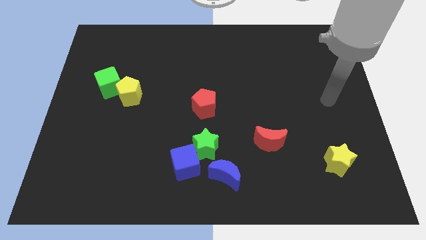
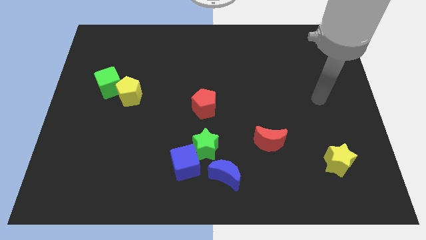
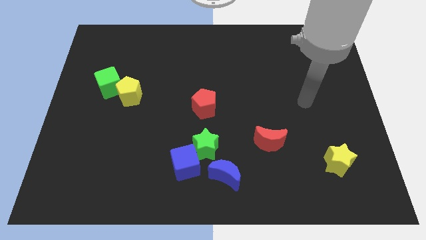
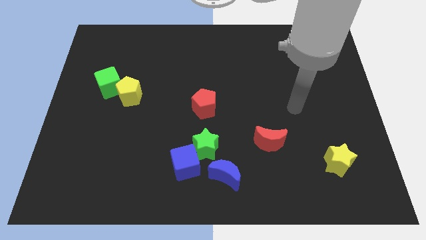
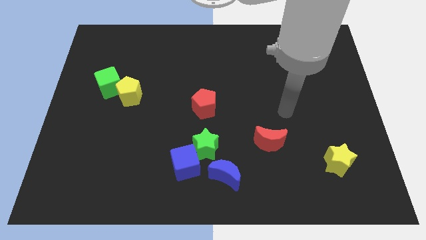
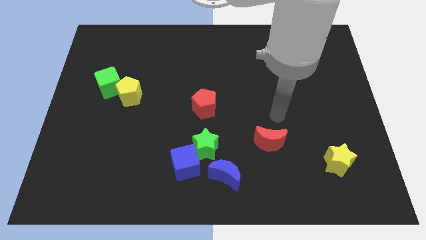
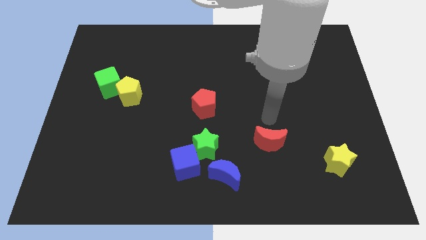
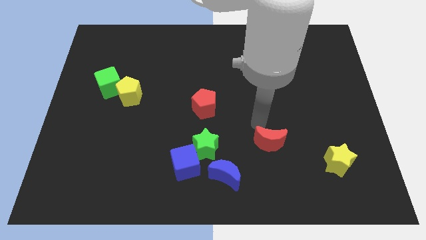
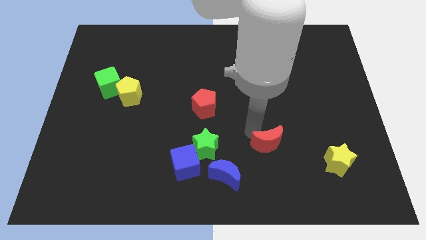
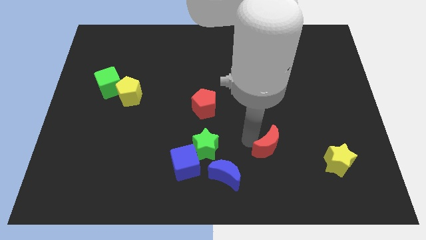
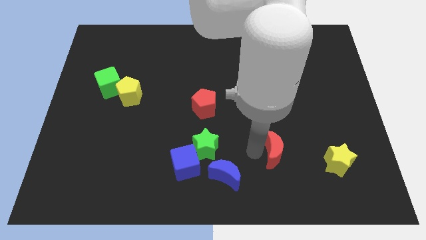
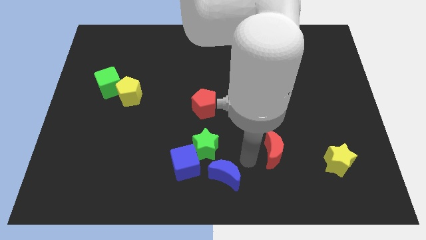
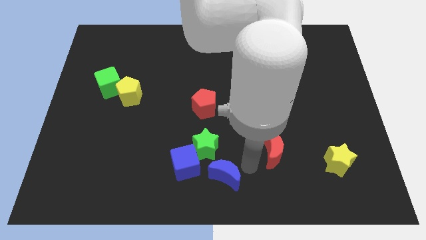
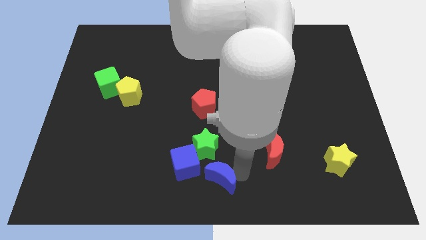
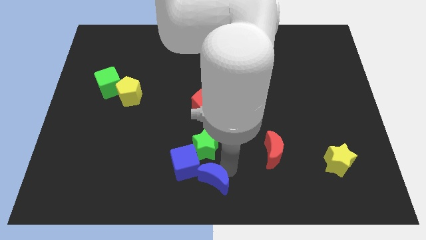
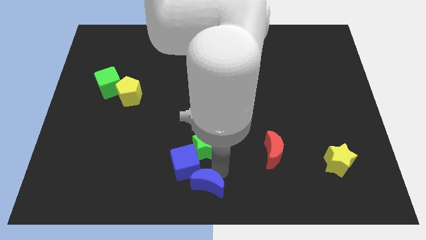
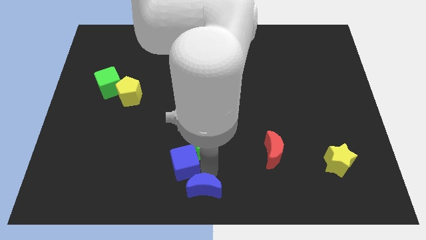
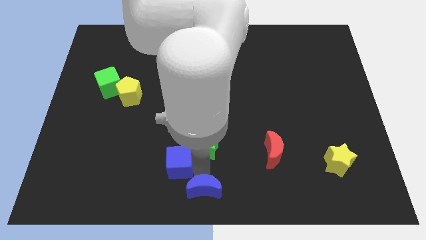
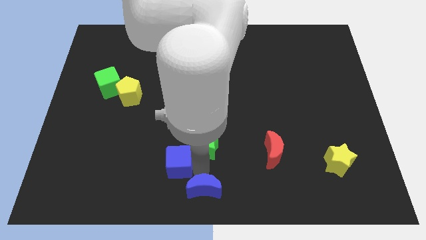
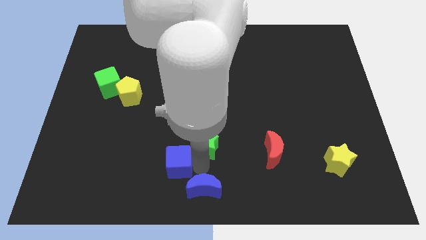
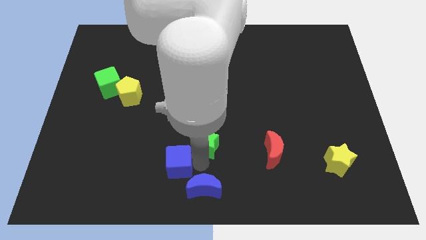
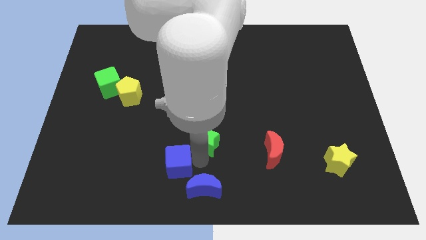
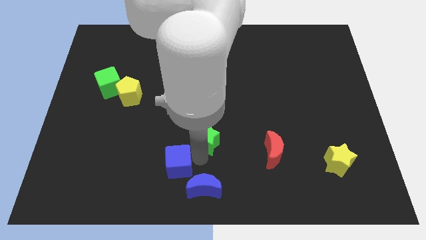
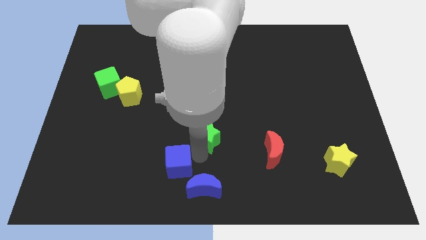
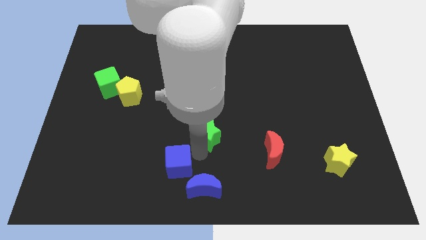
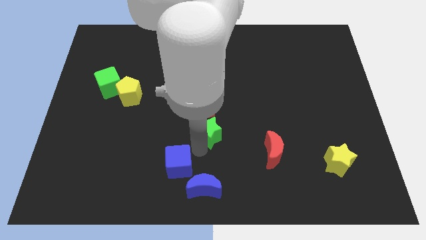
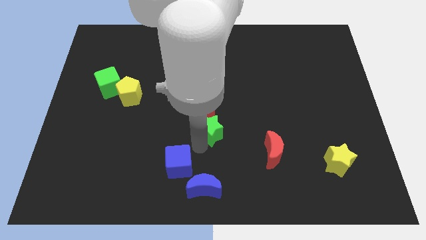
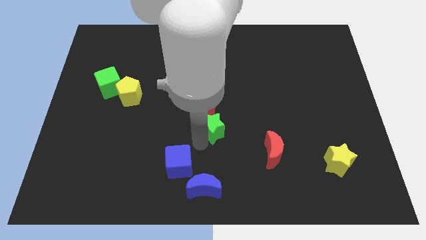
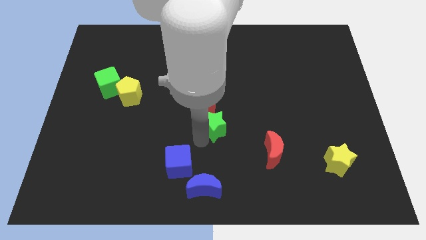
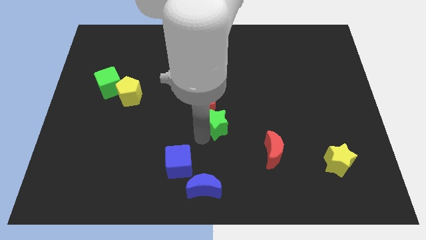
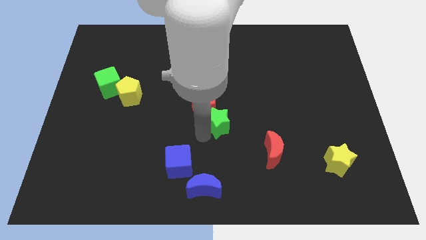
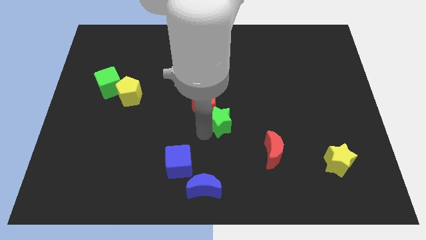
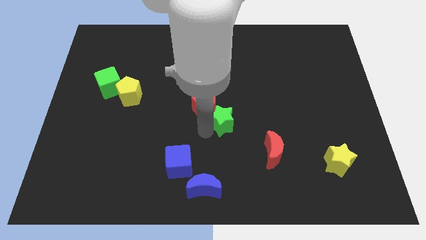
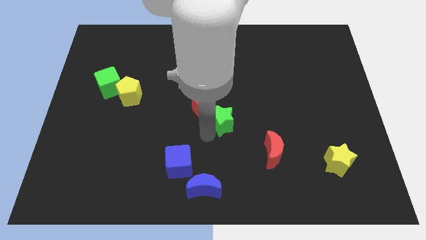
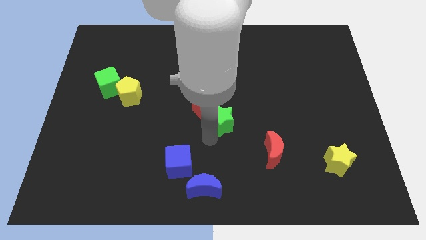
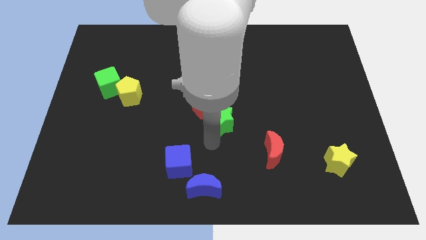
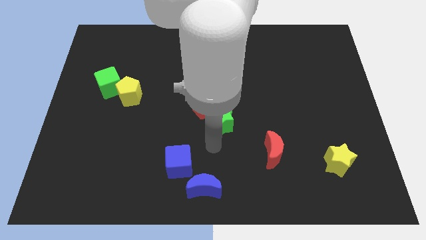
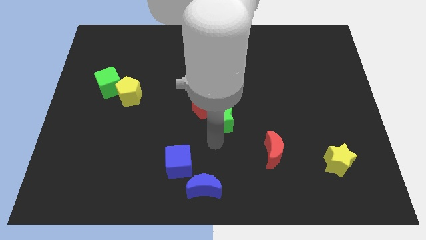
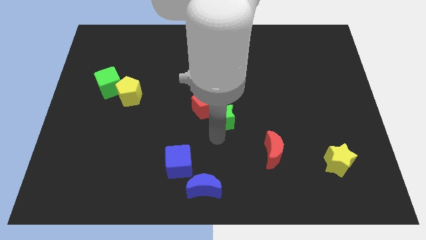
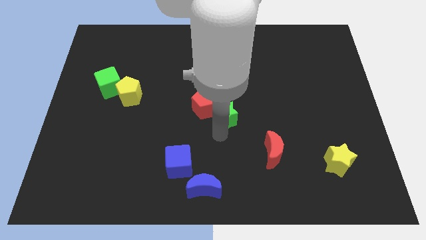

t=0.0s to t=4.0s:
slightly move the green star up

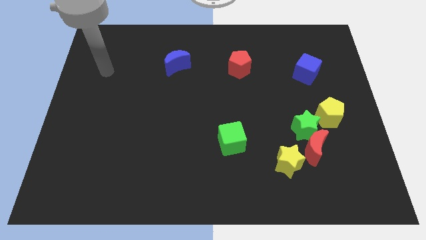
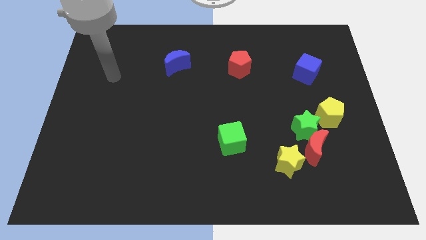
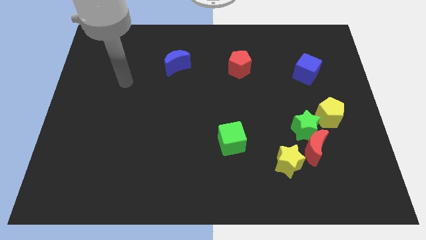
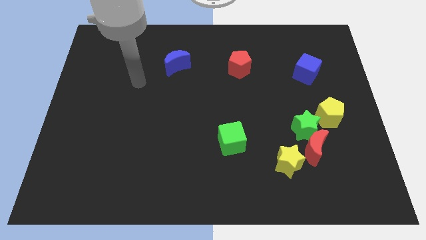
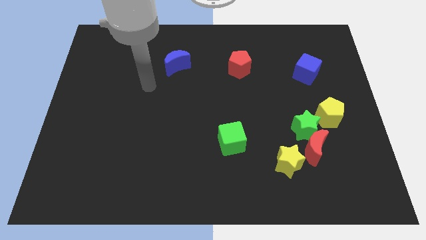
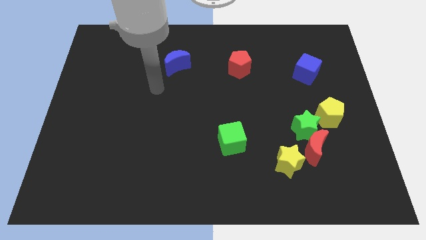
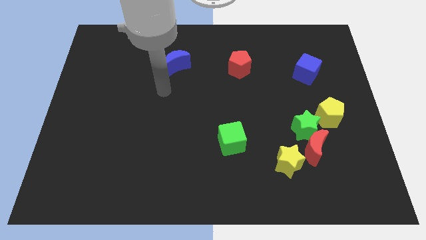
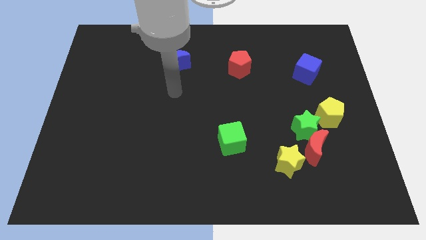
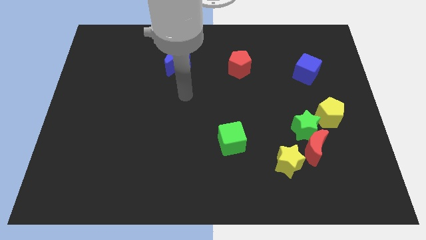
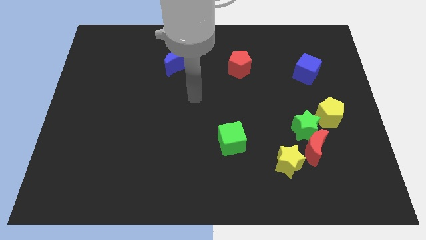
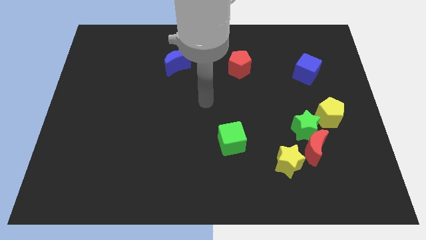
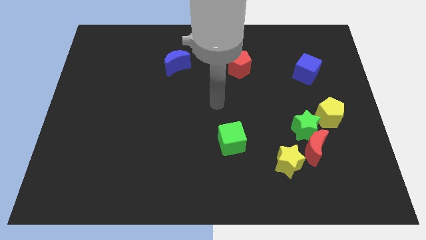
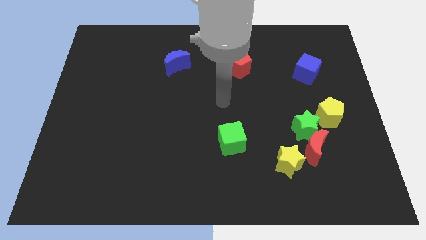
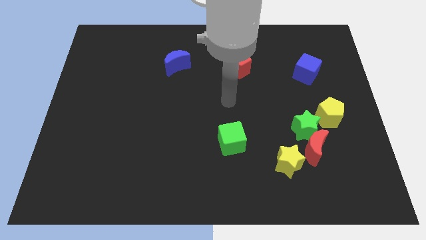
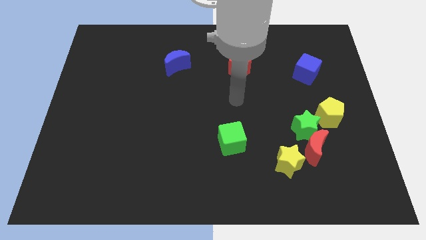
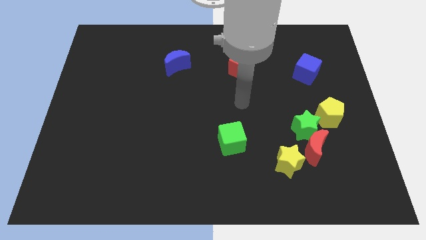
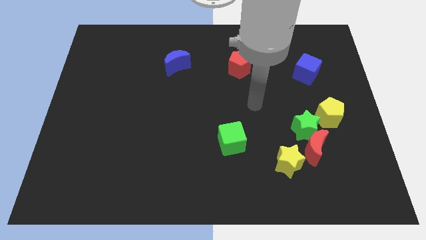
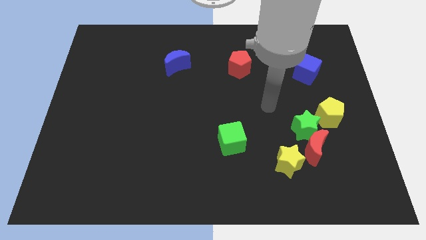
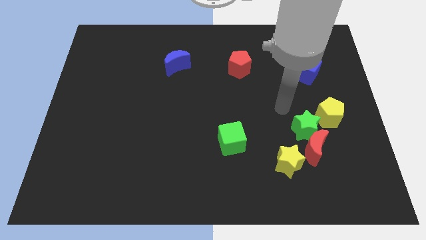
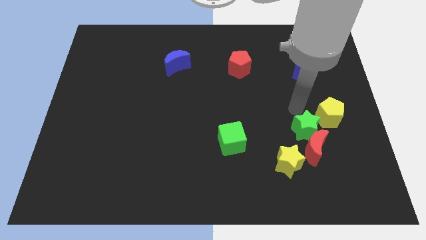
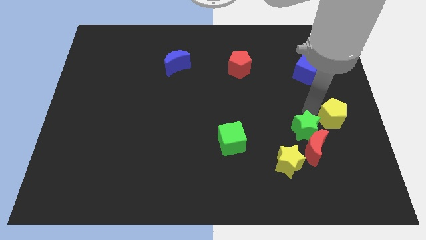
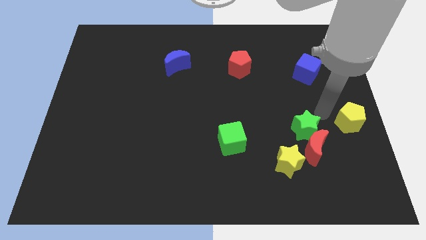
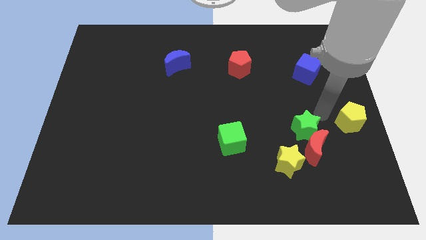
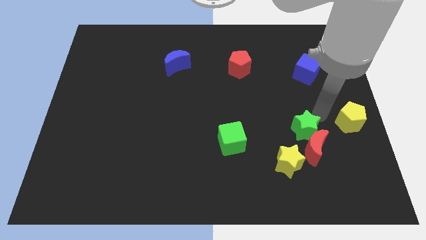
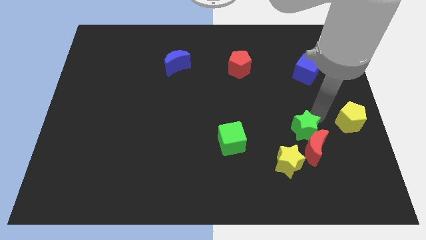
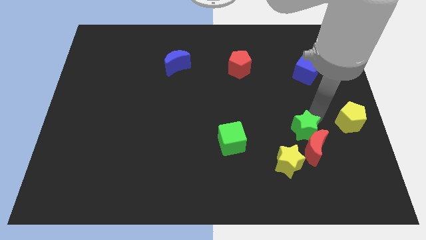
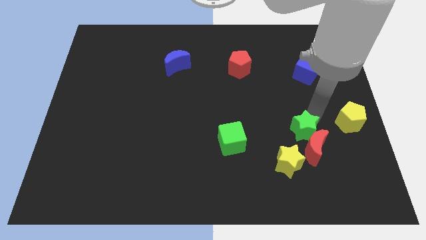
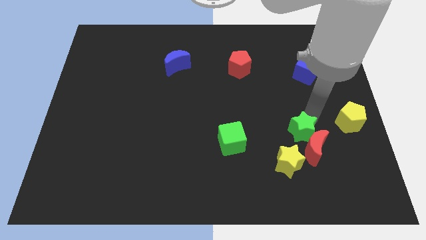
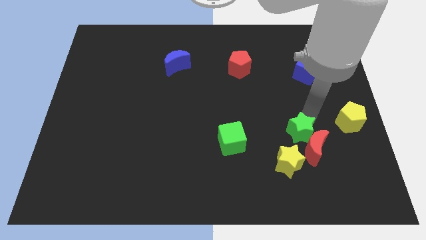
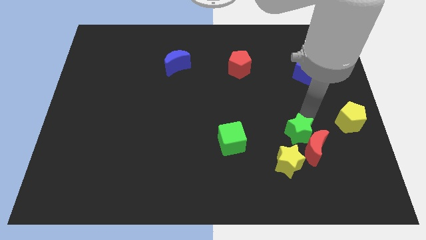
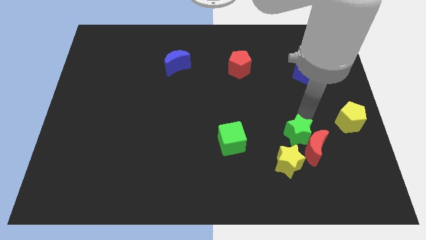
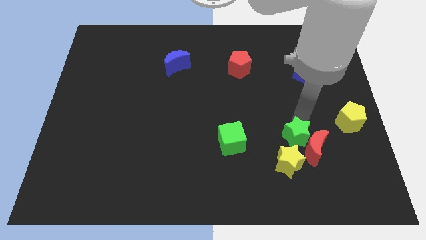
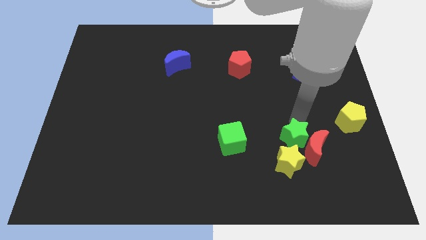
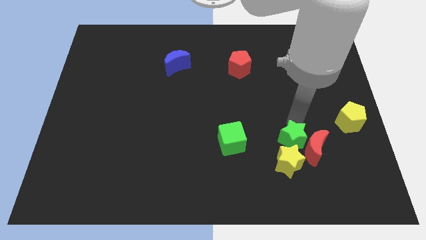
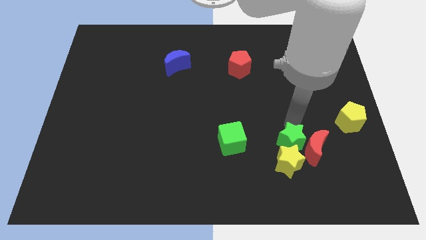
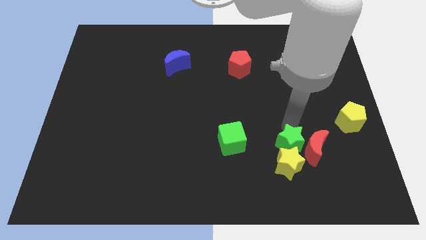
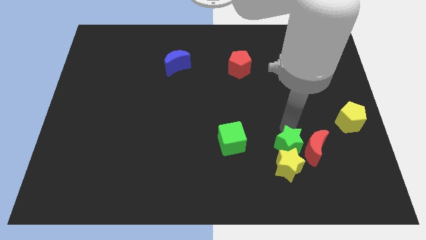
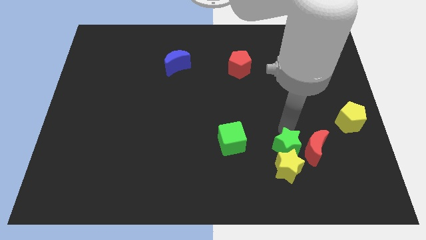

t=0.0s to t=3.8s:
move the green star slightly downwards and to the left diagonally

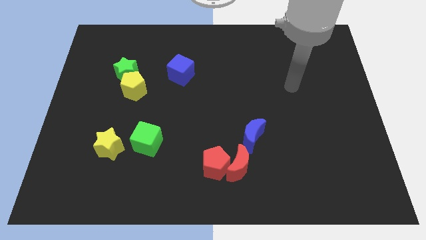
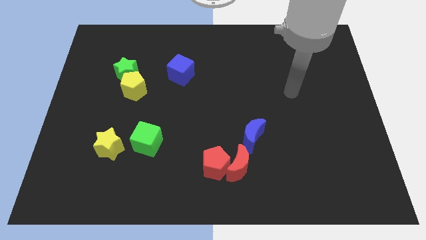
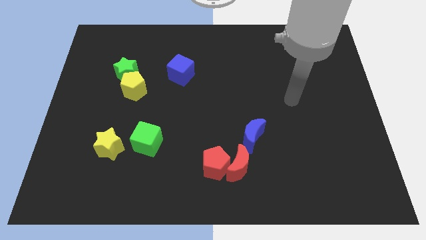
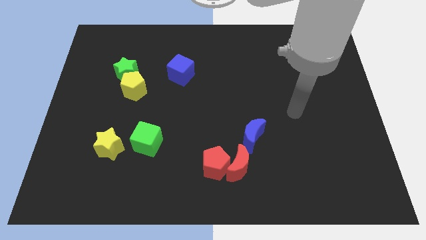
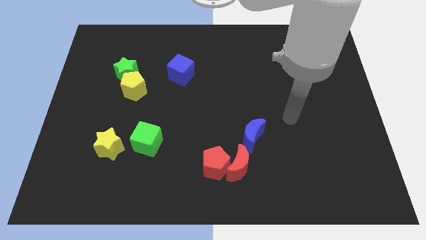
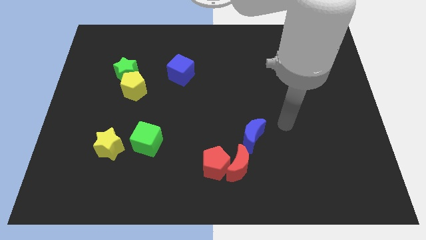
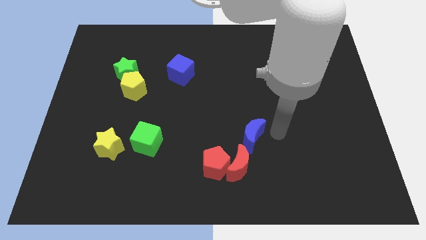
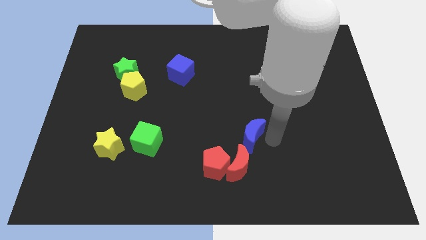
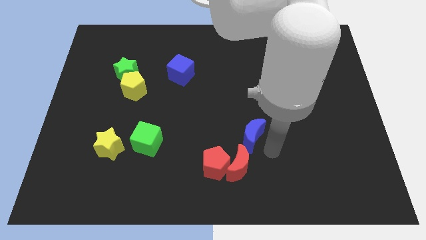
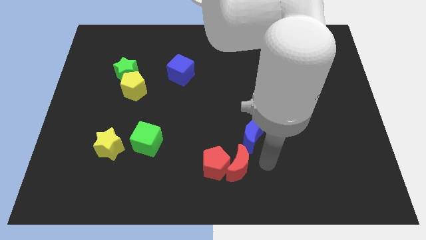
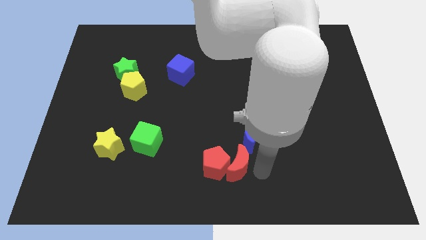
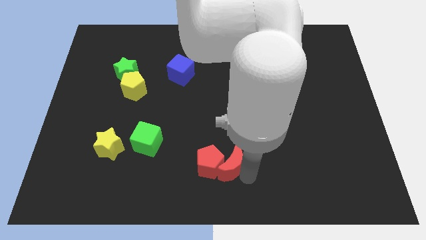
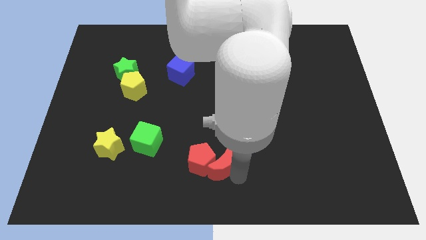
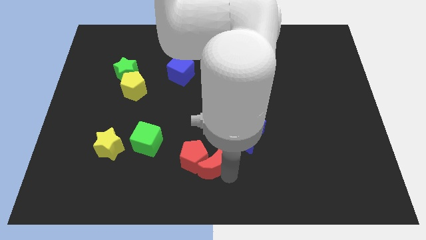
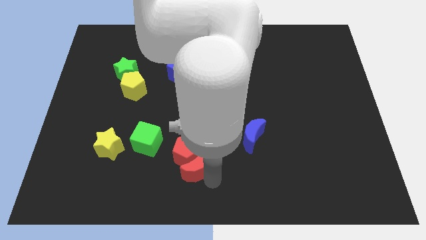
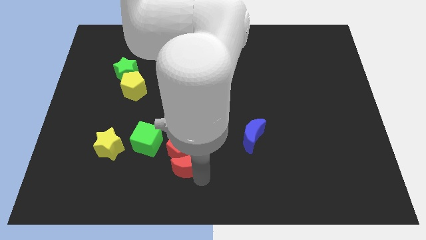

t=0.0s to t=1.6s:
slightly slide the red pentagon up and then to the left
